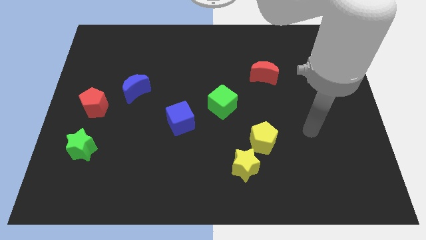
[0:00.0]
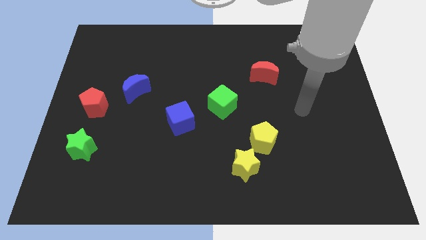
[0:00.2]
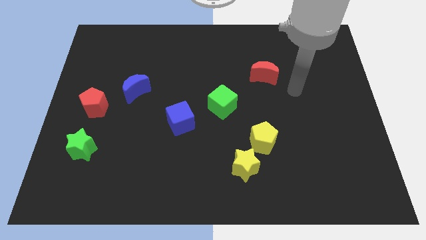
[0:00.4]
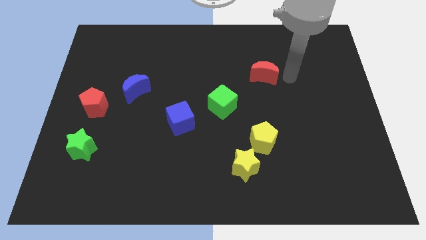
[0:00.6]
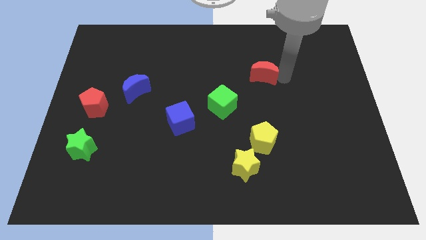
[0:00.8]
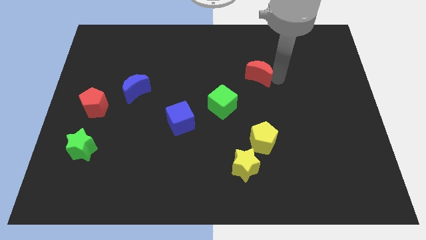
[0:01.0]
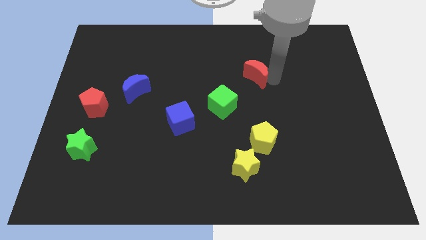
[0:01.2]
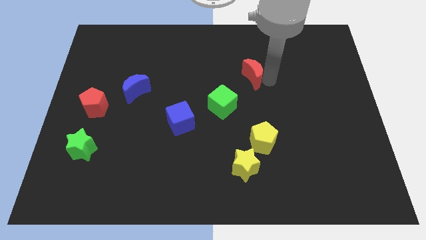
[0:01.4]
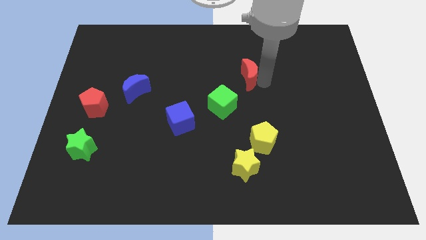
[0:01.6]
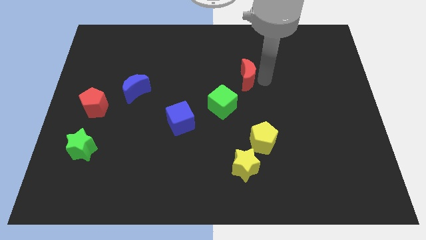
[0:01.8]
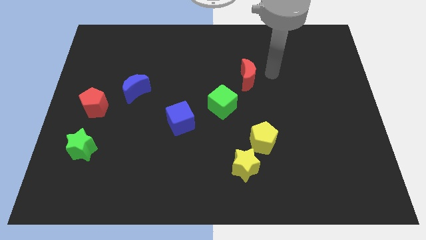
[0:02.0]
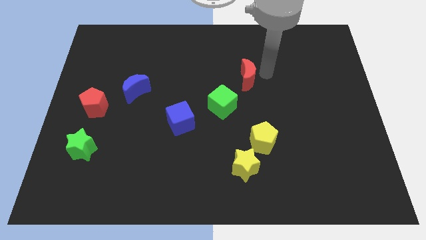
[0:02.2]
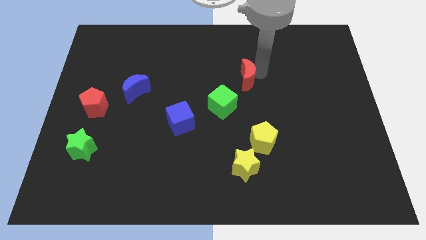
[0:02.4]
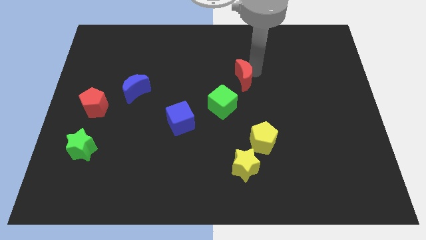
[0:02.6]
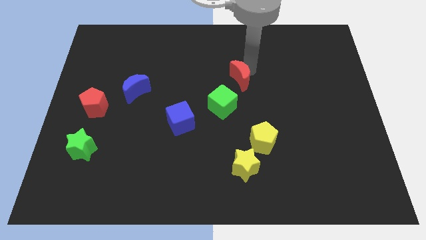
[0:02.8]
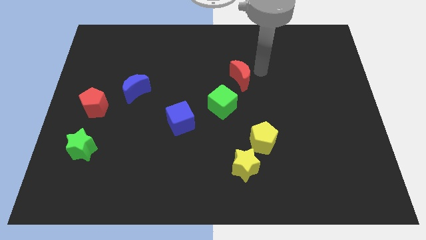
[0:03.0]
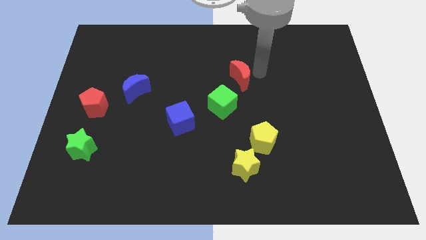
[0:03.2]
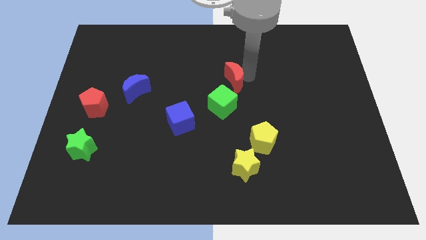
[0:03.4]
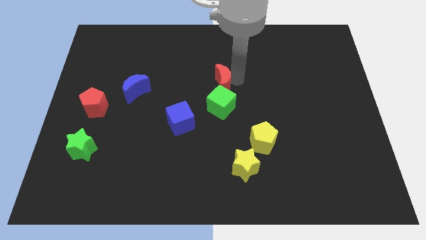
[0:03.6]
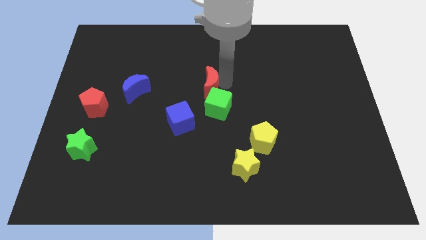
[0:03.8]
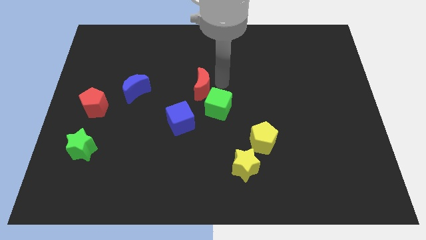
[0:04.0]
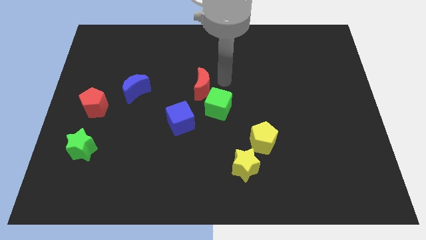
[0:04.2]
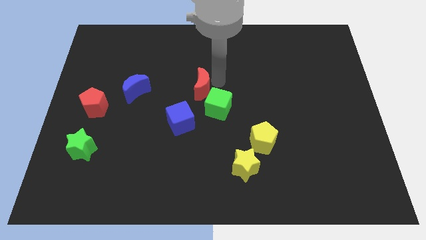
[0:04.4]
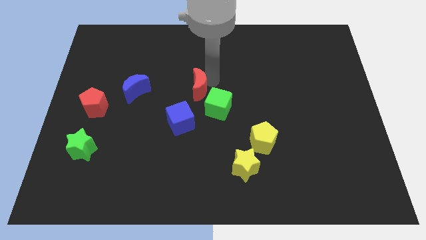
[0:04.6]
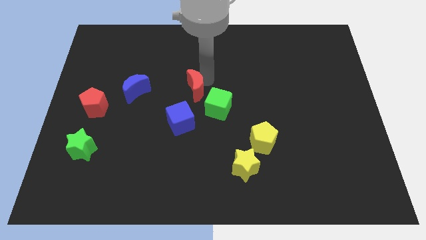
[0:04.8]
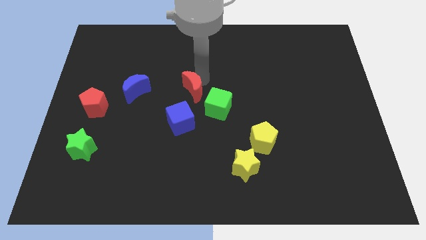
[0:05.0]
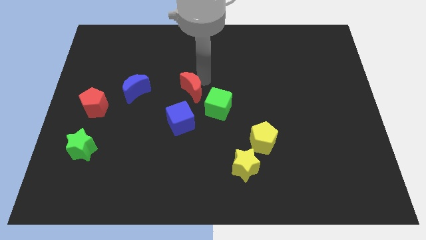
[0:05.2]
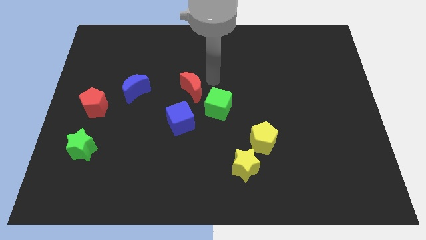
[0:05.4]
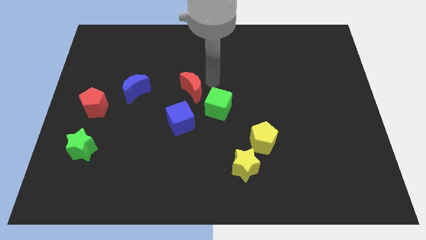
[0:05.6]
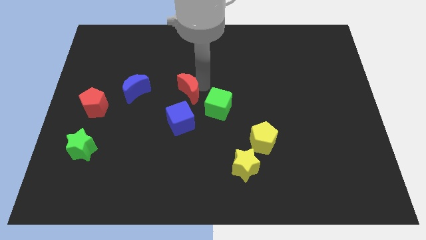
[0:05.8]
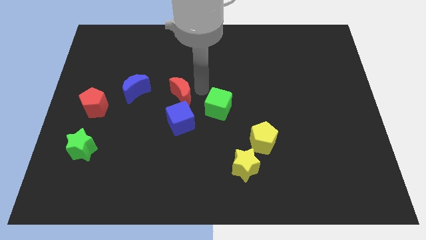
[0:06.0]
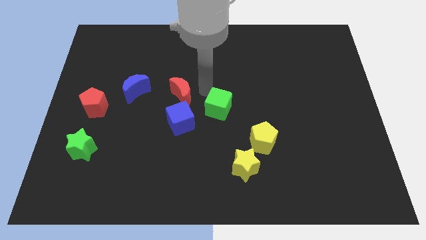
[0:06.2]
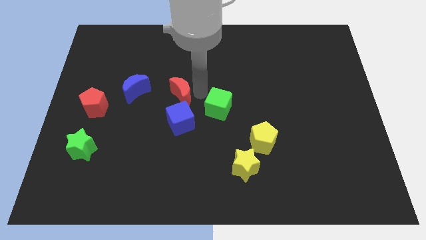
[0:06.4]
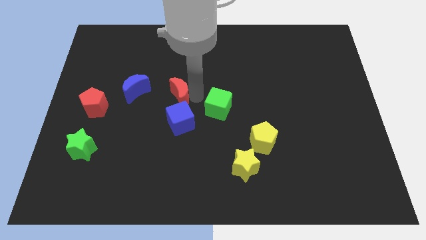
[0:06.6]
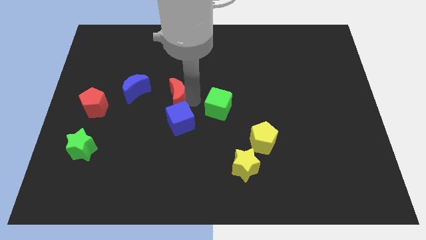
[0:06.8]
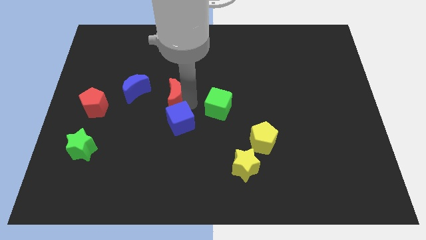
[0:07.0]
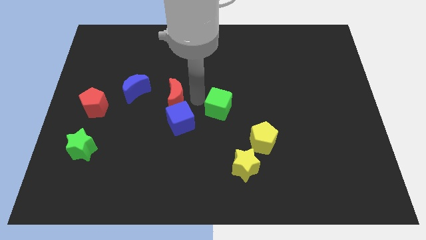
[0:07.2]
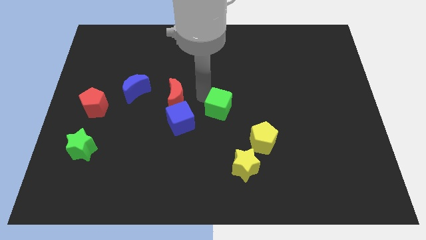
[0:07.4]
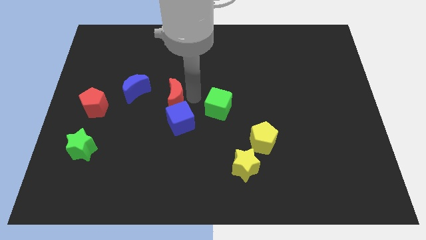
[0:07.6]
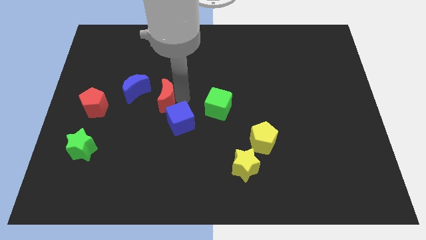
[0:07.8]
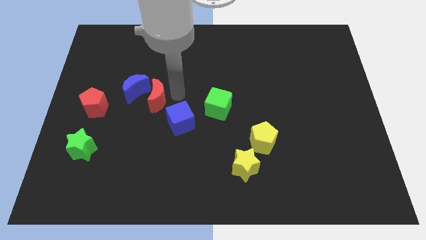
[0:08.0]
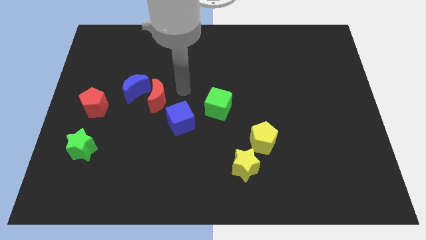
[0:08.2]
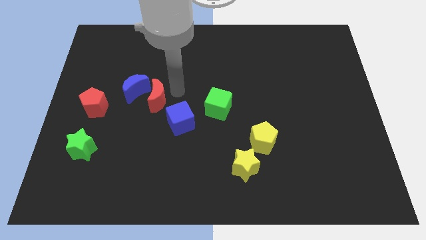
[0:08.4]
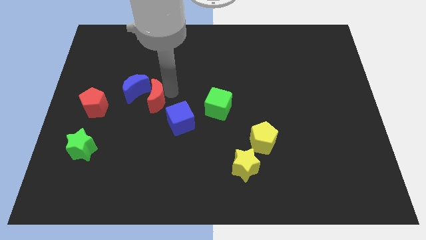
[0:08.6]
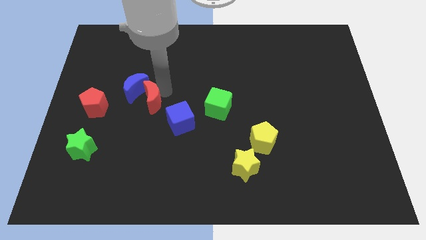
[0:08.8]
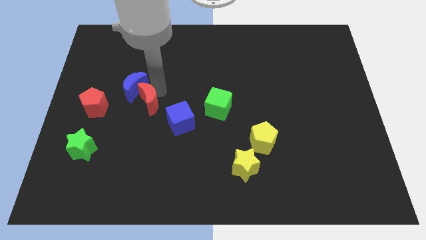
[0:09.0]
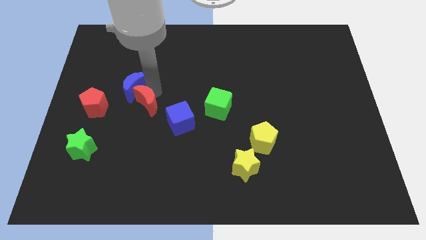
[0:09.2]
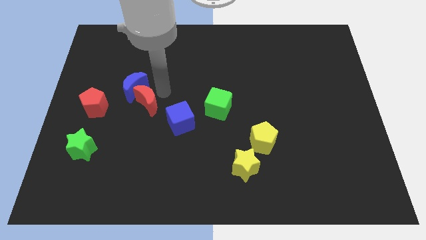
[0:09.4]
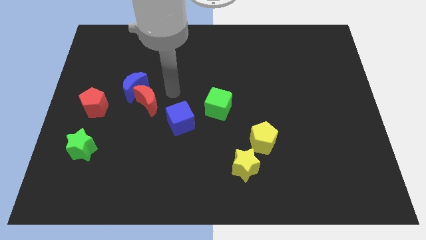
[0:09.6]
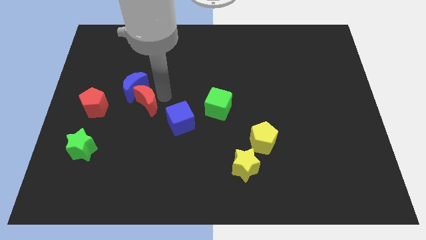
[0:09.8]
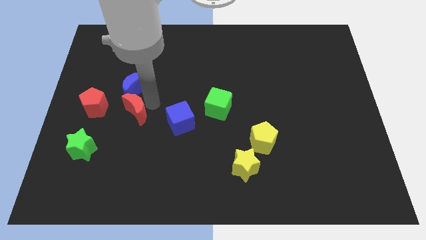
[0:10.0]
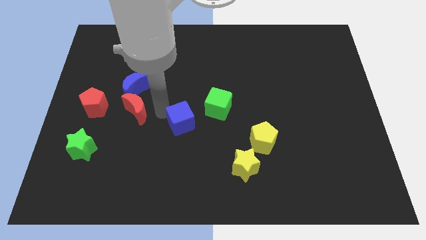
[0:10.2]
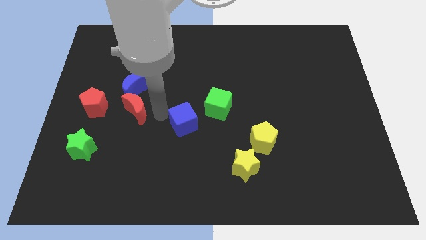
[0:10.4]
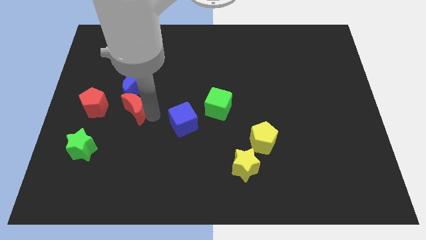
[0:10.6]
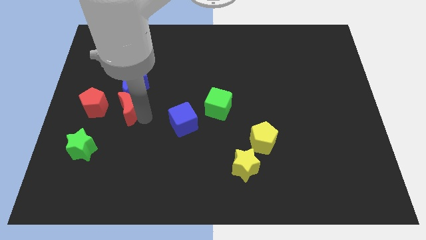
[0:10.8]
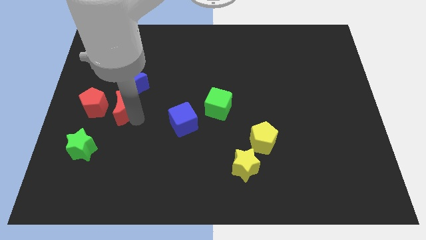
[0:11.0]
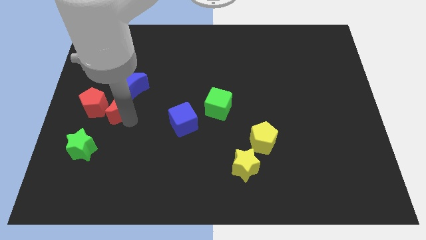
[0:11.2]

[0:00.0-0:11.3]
move the red moon to the red pentagon

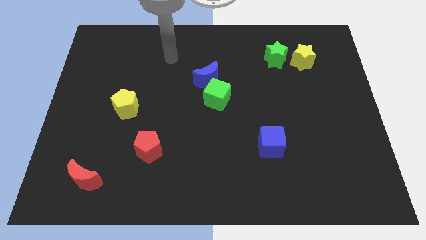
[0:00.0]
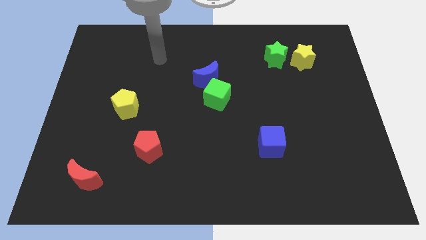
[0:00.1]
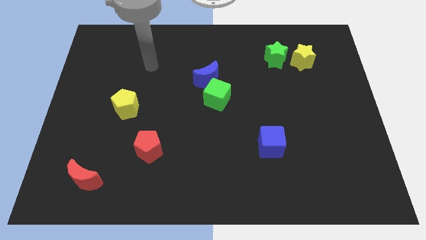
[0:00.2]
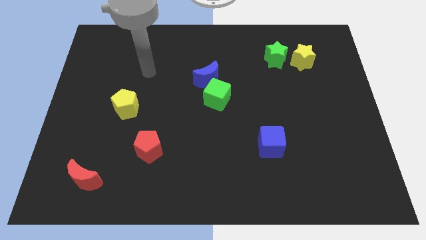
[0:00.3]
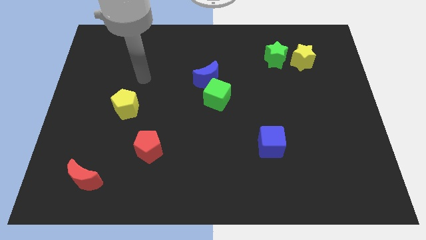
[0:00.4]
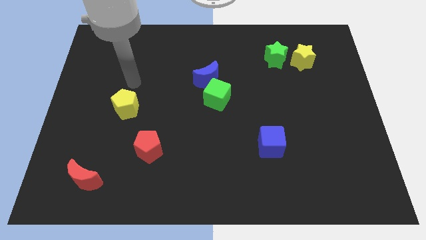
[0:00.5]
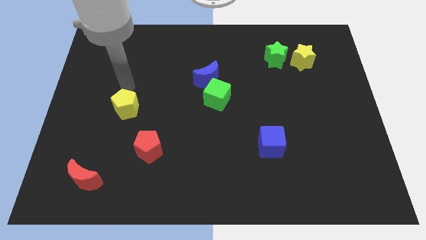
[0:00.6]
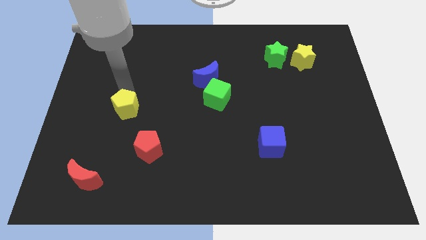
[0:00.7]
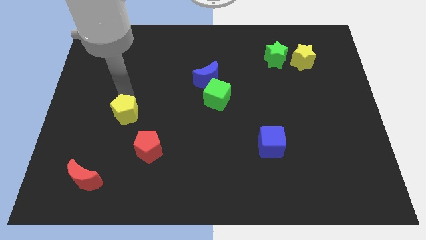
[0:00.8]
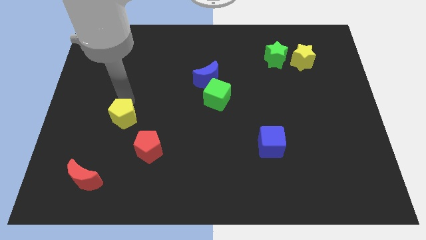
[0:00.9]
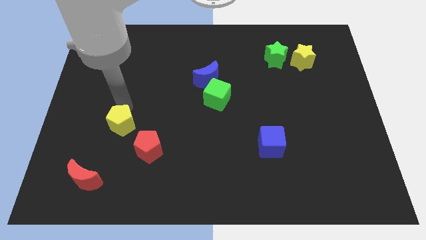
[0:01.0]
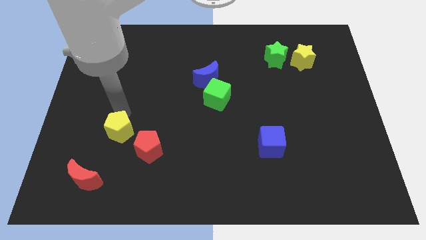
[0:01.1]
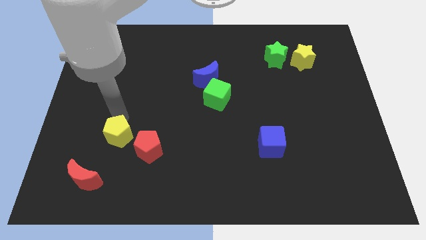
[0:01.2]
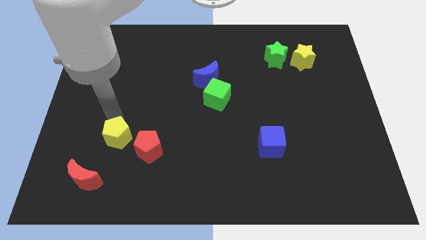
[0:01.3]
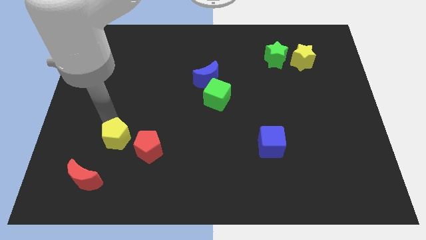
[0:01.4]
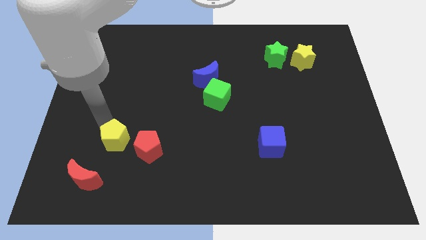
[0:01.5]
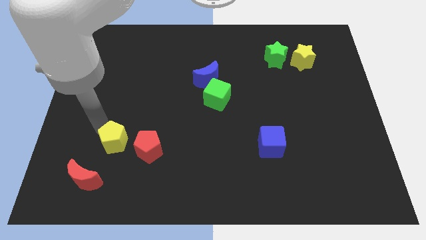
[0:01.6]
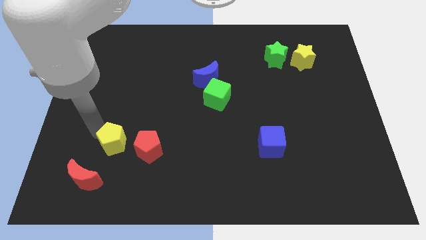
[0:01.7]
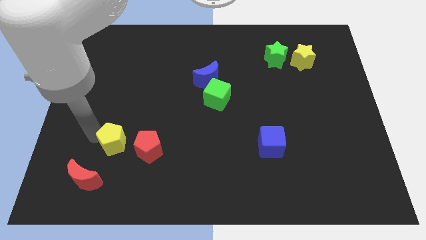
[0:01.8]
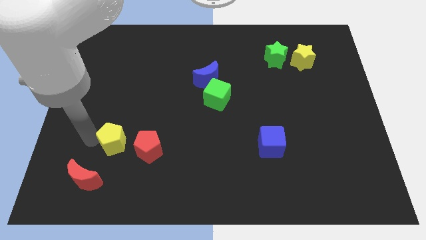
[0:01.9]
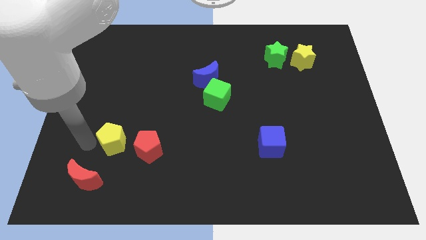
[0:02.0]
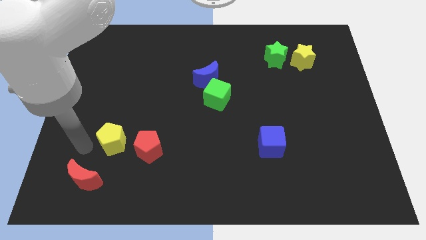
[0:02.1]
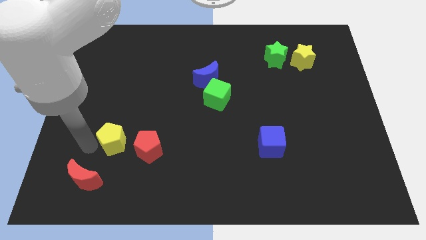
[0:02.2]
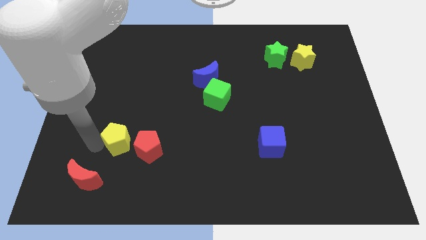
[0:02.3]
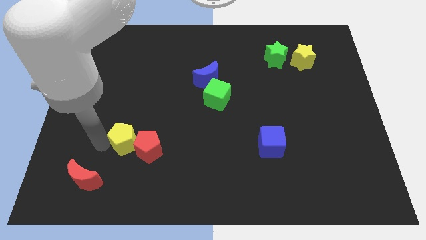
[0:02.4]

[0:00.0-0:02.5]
put the yellow pentagon towards the red pentagon

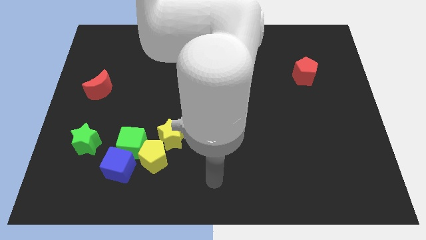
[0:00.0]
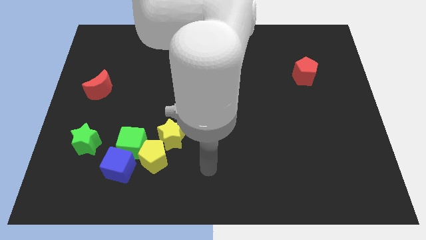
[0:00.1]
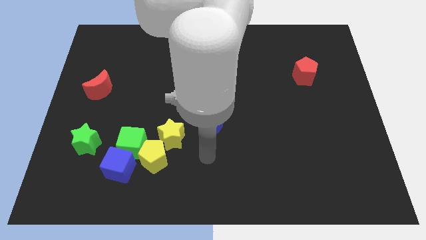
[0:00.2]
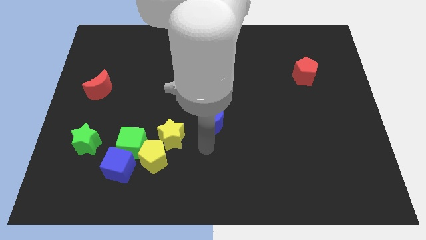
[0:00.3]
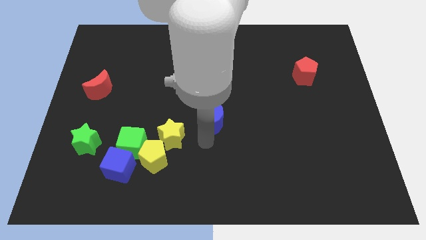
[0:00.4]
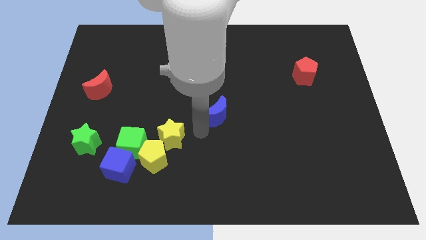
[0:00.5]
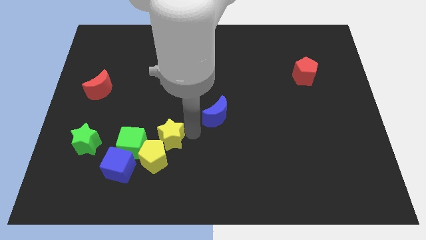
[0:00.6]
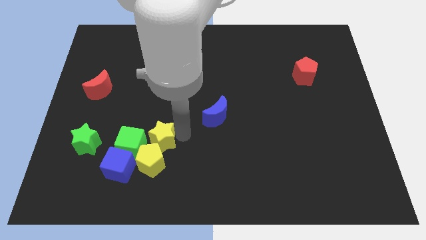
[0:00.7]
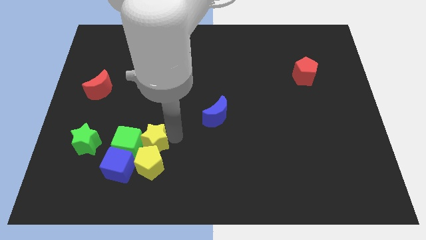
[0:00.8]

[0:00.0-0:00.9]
slide the yellow star next to the green cube
